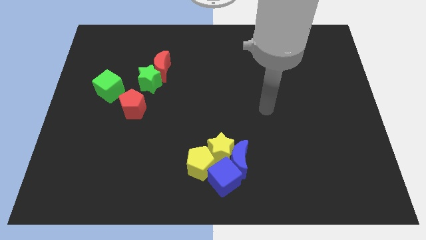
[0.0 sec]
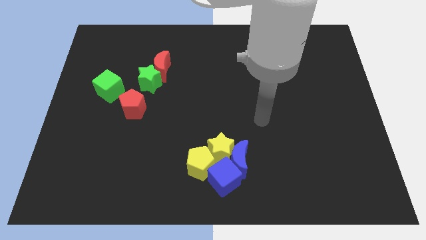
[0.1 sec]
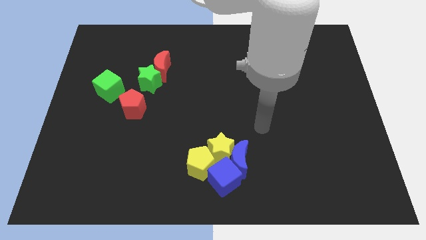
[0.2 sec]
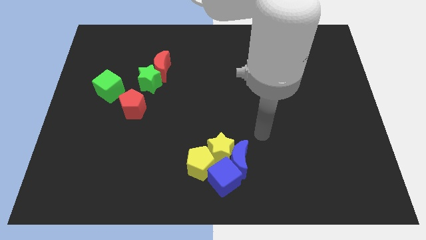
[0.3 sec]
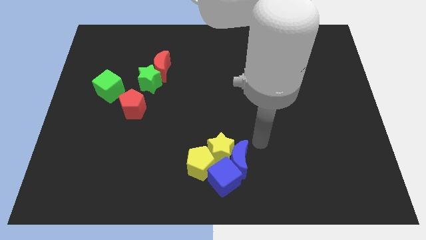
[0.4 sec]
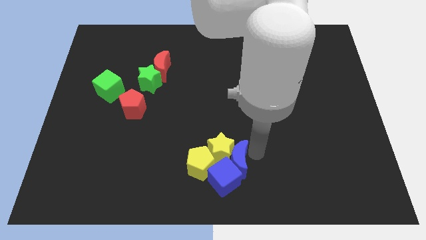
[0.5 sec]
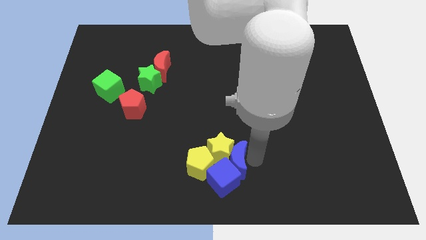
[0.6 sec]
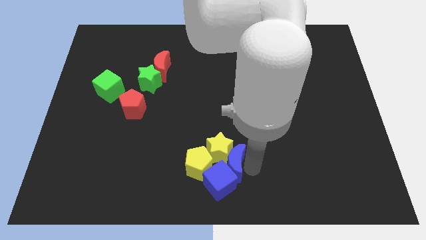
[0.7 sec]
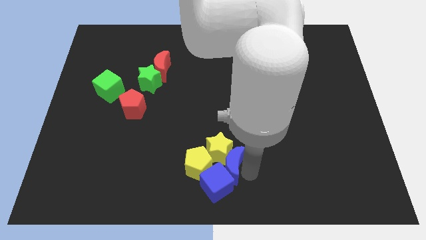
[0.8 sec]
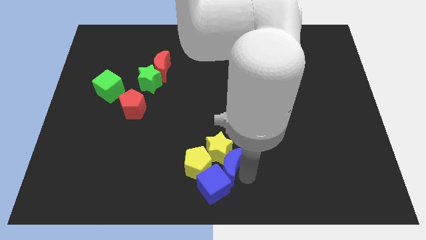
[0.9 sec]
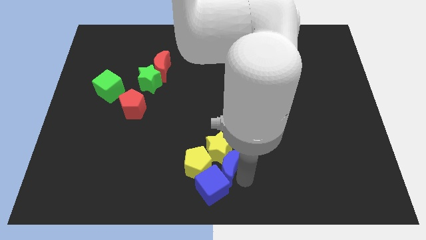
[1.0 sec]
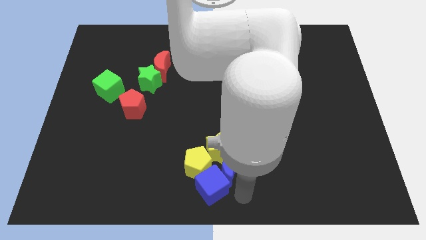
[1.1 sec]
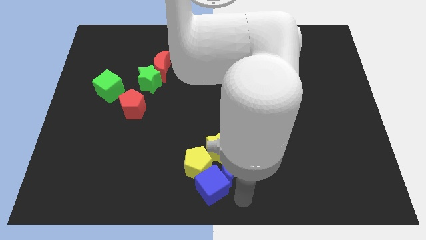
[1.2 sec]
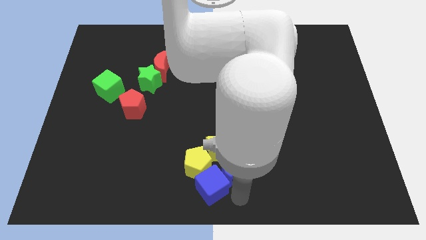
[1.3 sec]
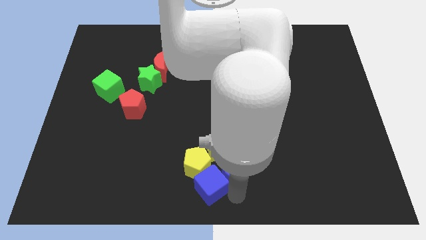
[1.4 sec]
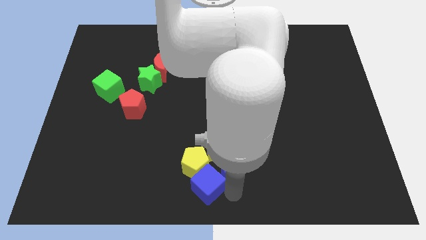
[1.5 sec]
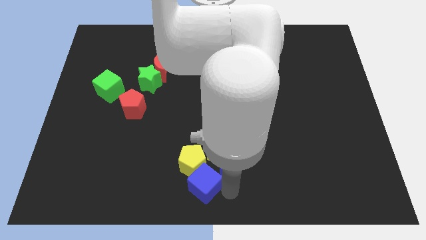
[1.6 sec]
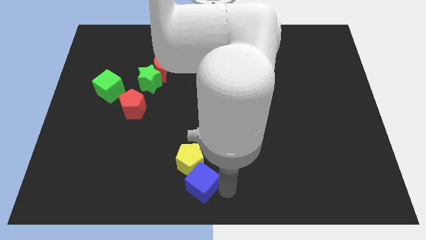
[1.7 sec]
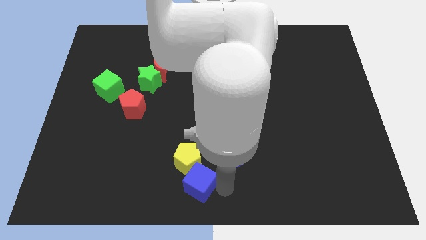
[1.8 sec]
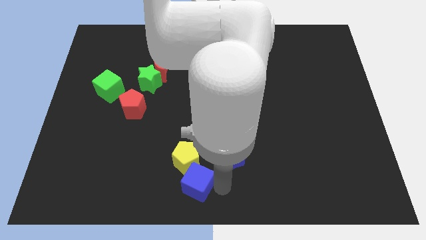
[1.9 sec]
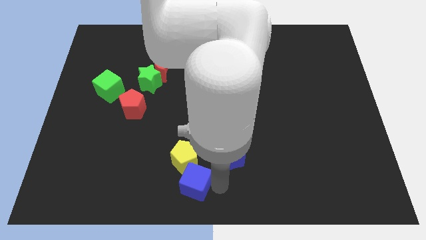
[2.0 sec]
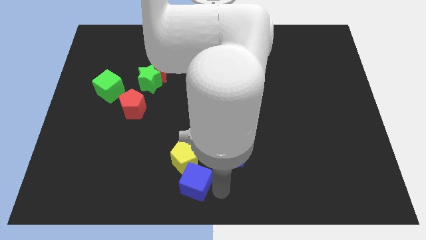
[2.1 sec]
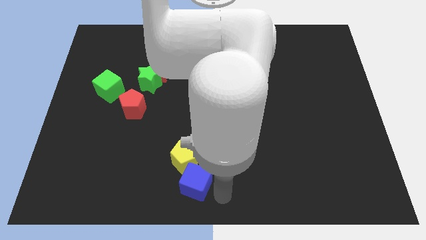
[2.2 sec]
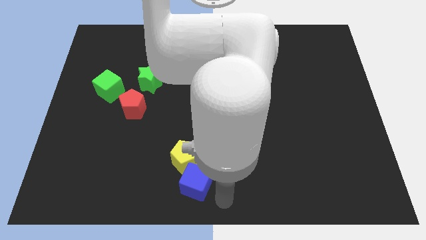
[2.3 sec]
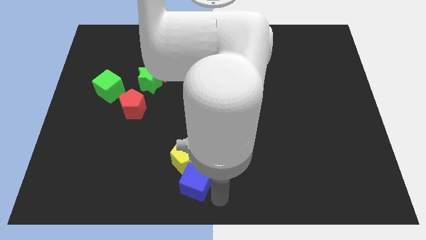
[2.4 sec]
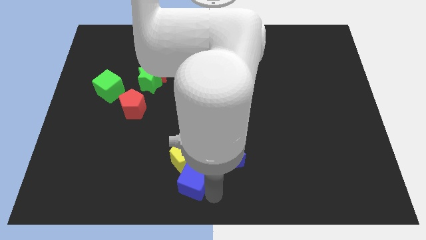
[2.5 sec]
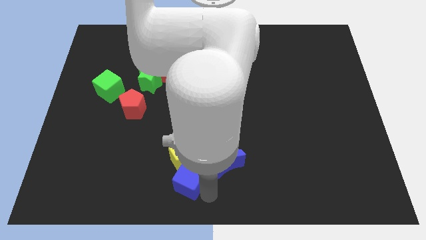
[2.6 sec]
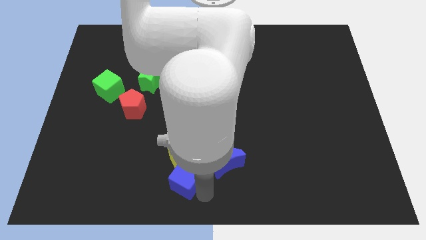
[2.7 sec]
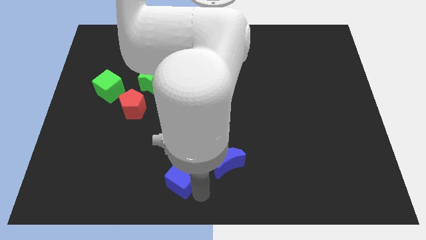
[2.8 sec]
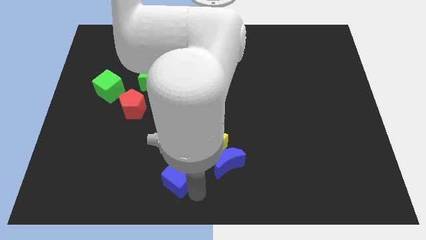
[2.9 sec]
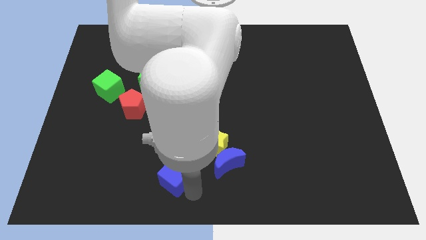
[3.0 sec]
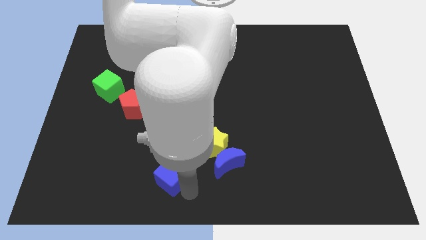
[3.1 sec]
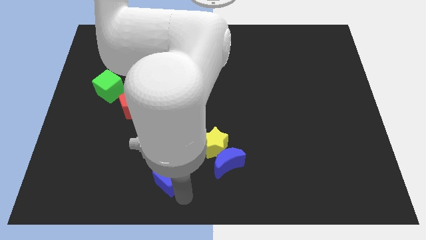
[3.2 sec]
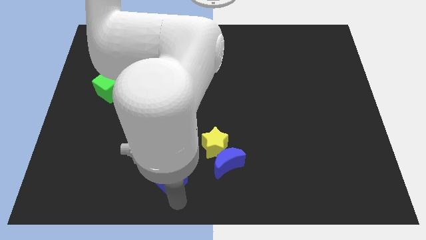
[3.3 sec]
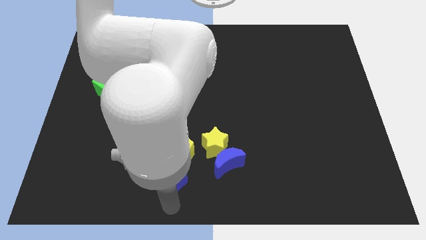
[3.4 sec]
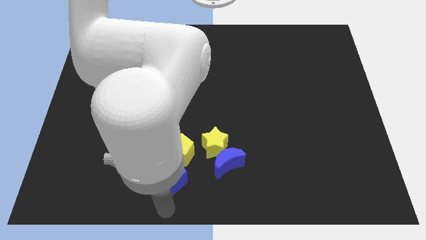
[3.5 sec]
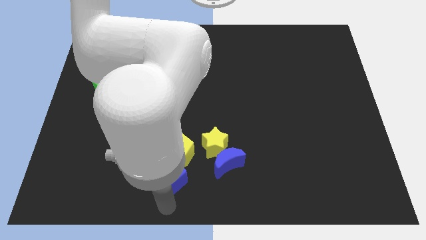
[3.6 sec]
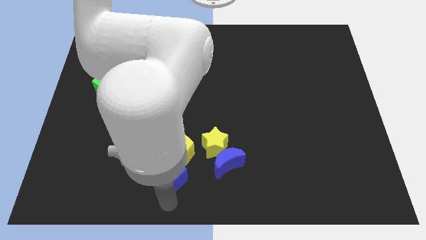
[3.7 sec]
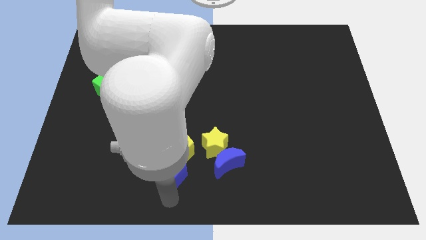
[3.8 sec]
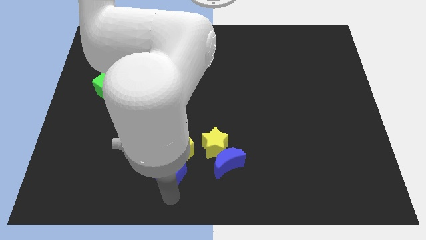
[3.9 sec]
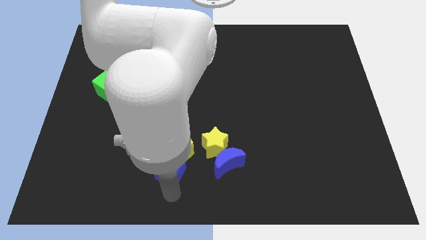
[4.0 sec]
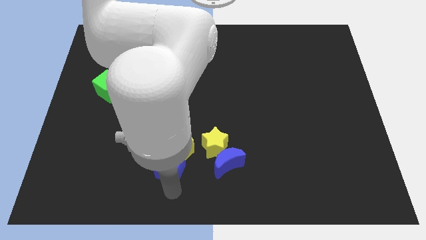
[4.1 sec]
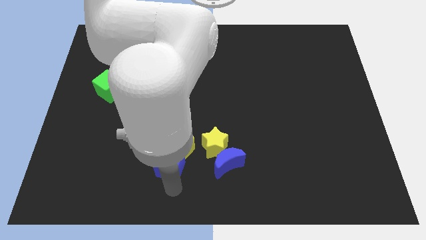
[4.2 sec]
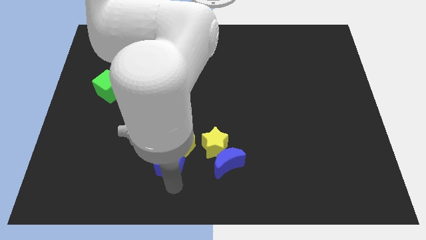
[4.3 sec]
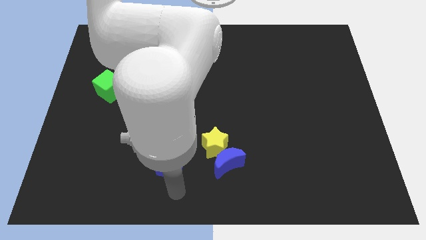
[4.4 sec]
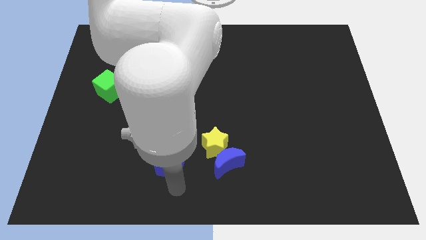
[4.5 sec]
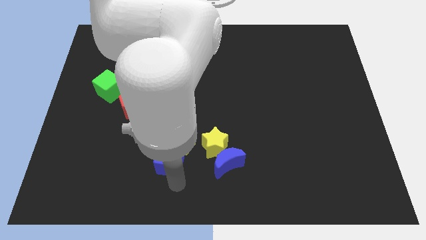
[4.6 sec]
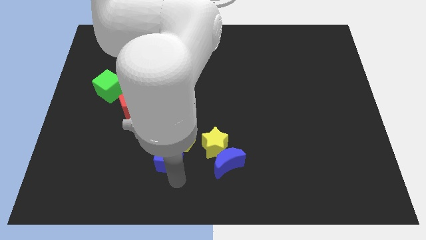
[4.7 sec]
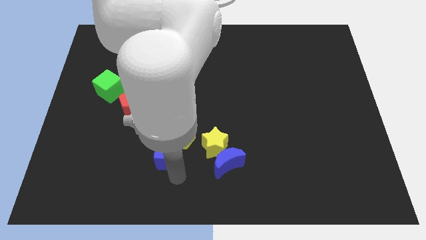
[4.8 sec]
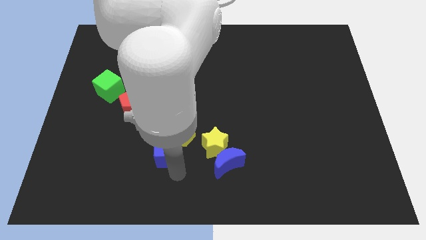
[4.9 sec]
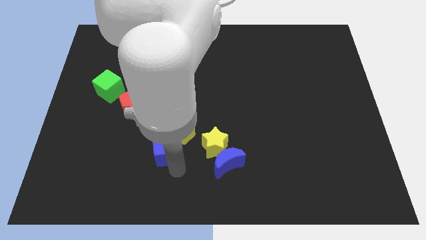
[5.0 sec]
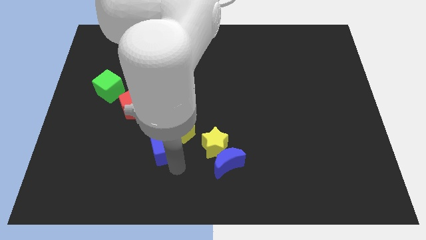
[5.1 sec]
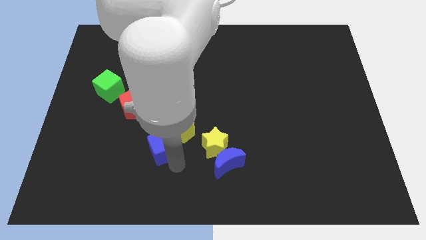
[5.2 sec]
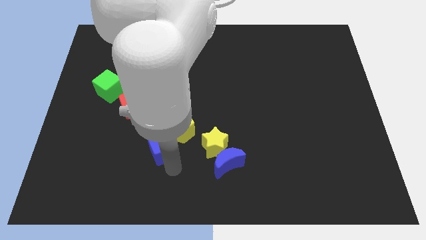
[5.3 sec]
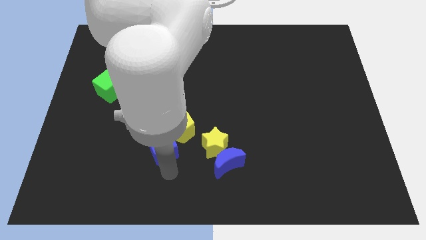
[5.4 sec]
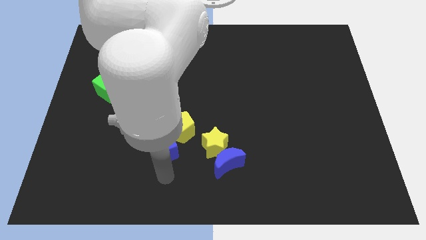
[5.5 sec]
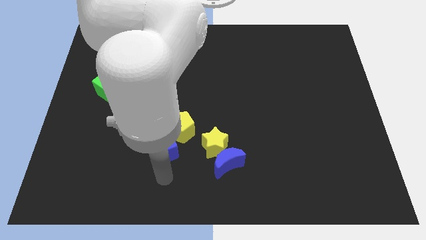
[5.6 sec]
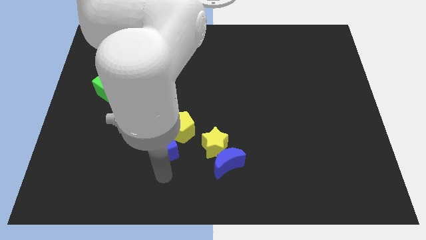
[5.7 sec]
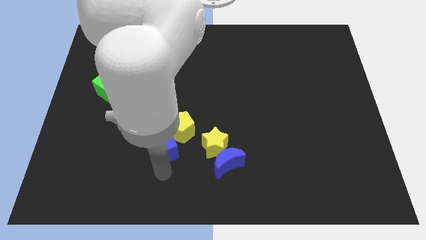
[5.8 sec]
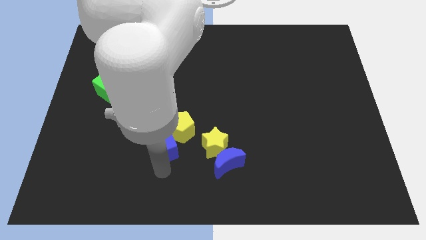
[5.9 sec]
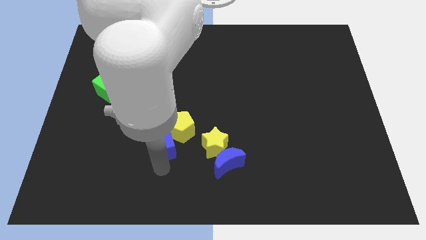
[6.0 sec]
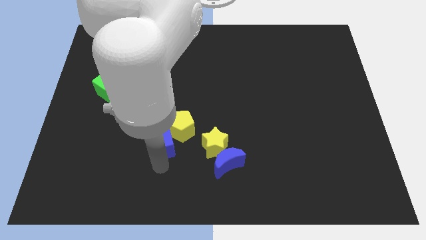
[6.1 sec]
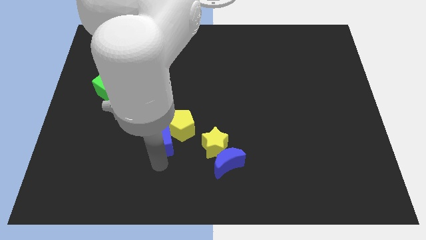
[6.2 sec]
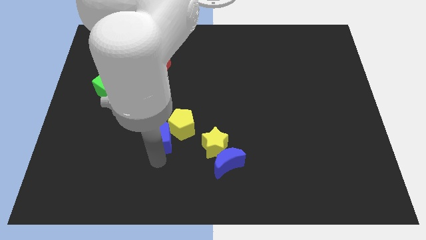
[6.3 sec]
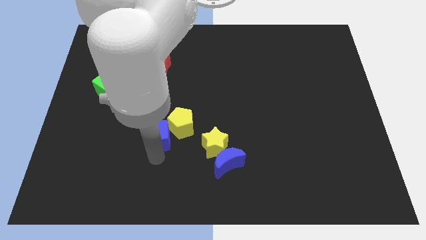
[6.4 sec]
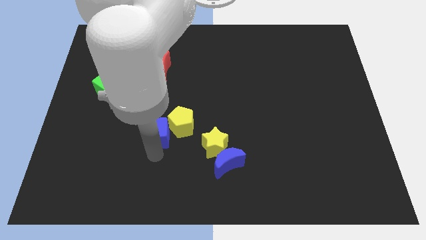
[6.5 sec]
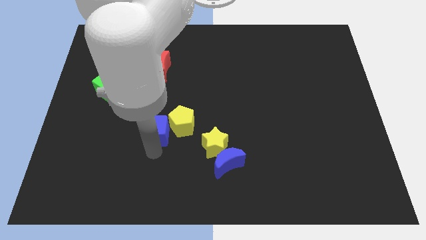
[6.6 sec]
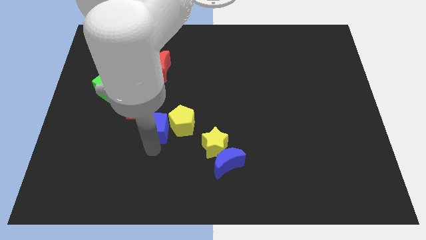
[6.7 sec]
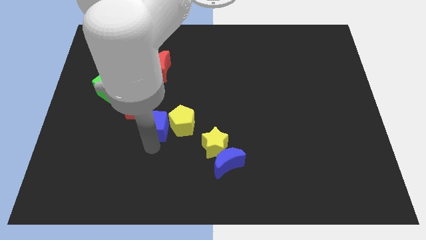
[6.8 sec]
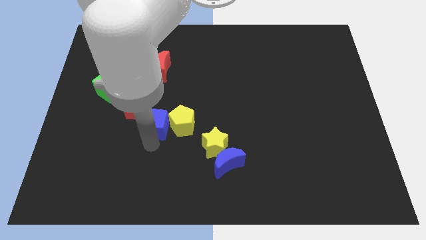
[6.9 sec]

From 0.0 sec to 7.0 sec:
slide the blue cube upwards and then left

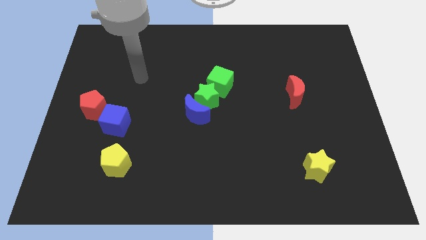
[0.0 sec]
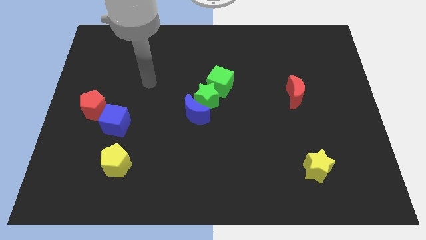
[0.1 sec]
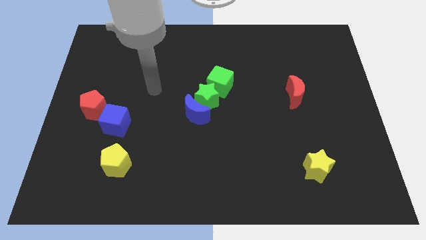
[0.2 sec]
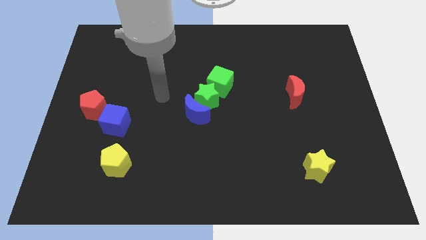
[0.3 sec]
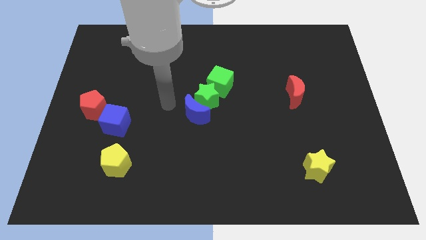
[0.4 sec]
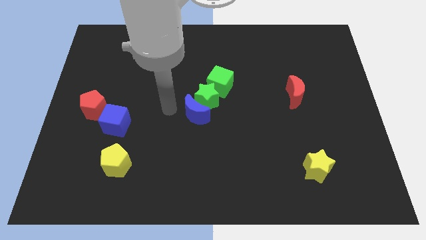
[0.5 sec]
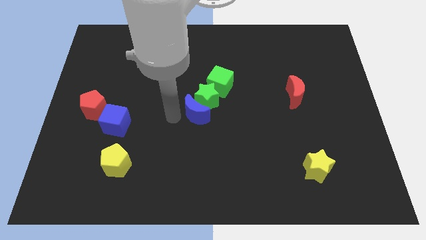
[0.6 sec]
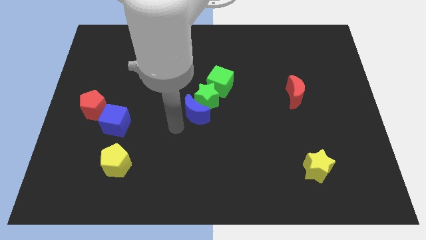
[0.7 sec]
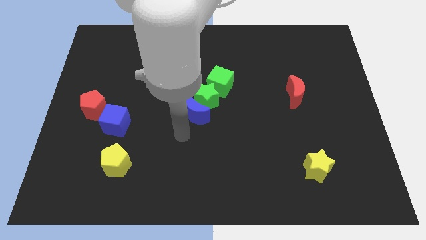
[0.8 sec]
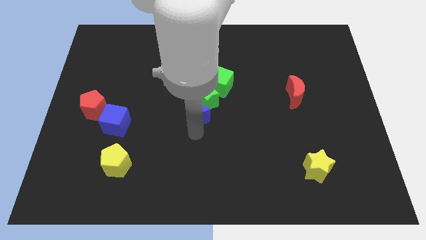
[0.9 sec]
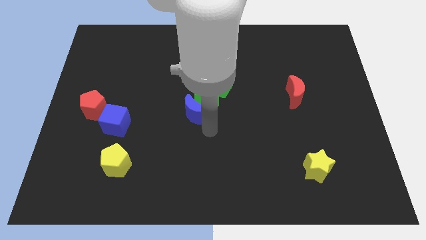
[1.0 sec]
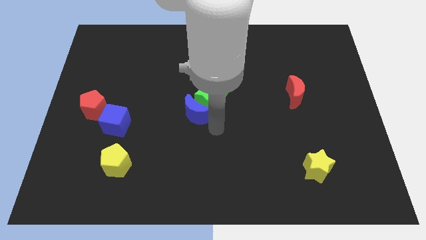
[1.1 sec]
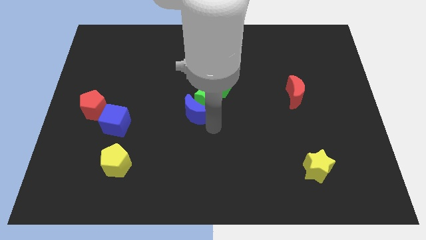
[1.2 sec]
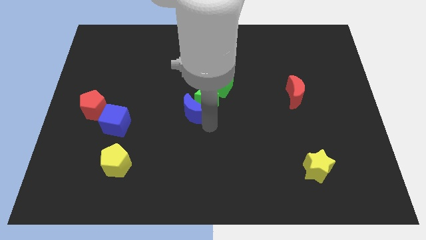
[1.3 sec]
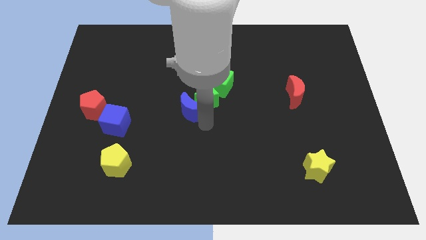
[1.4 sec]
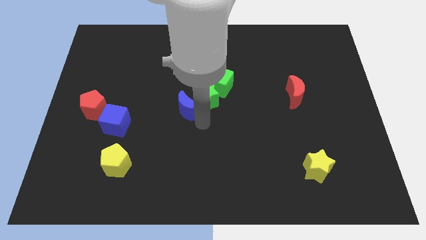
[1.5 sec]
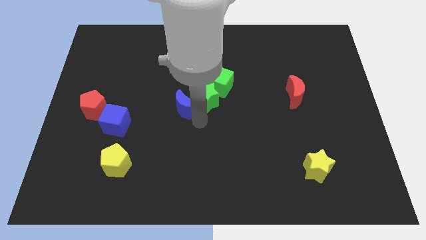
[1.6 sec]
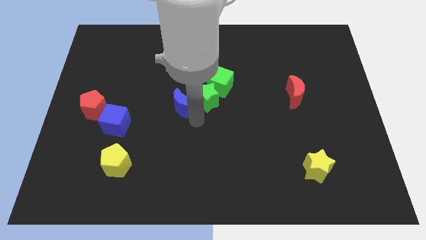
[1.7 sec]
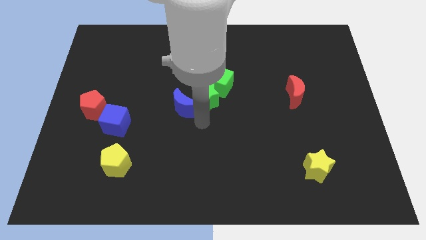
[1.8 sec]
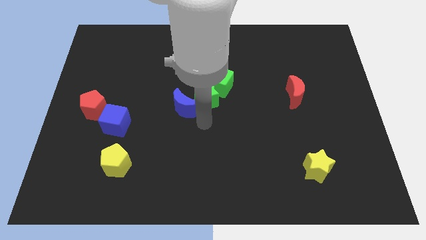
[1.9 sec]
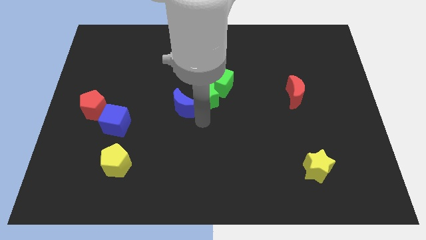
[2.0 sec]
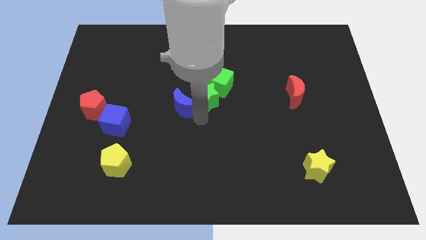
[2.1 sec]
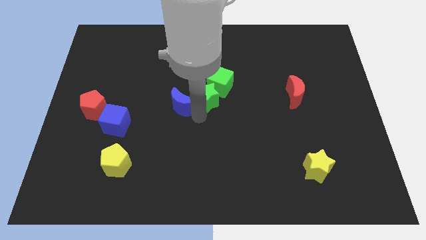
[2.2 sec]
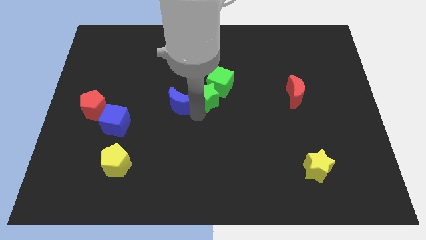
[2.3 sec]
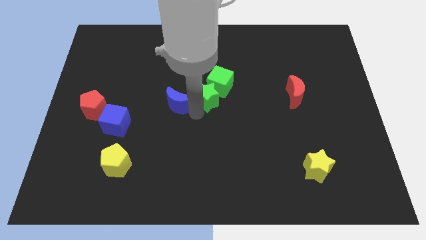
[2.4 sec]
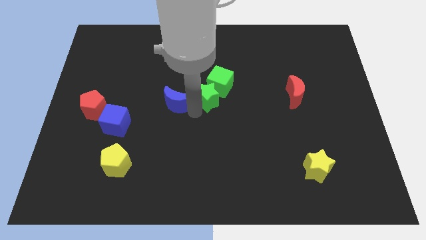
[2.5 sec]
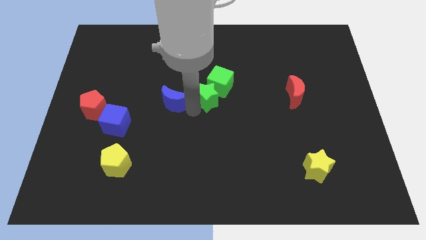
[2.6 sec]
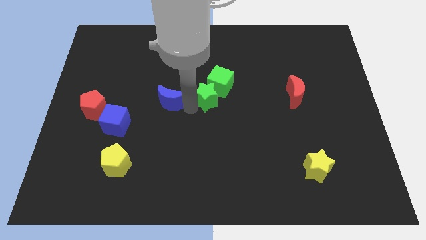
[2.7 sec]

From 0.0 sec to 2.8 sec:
slide the blue moon up and to the left diagonally a little bit